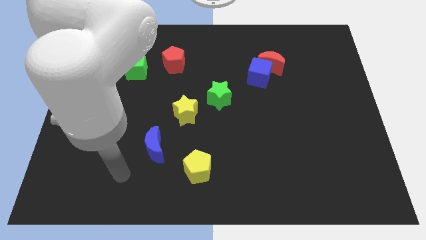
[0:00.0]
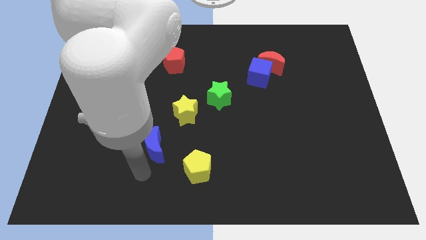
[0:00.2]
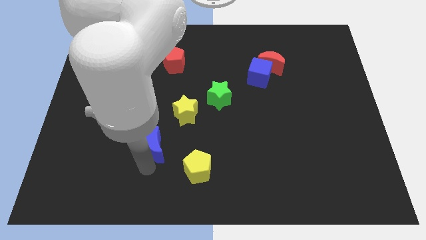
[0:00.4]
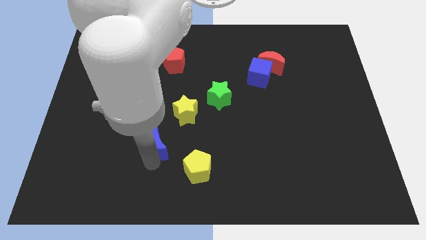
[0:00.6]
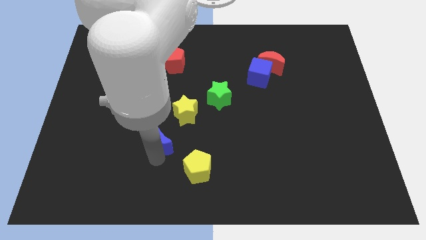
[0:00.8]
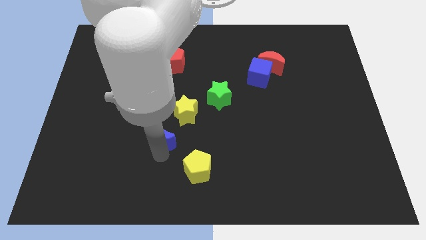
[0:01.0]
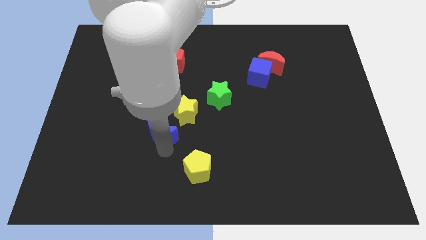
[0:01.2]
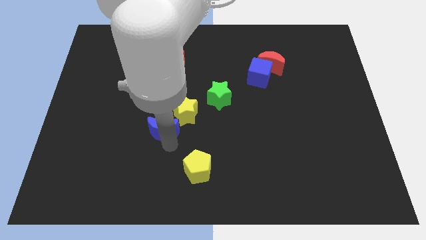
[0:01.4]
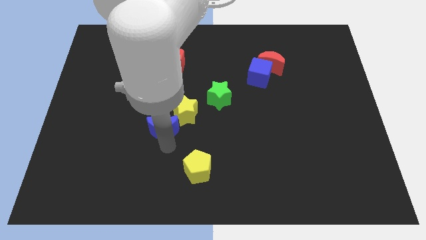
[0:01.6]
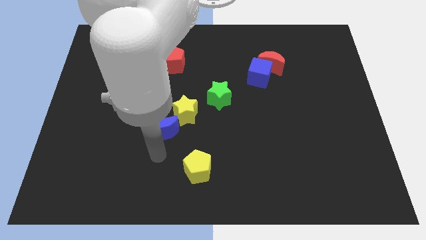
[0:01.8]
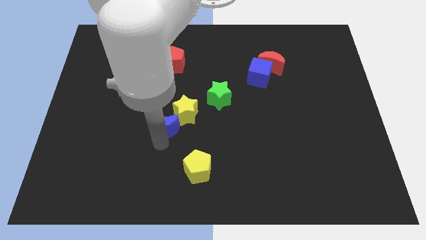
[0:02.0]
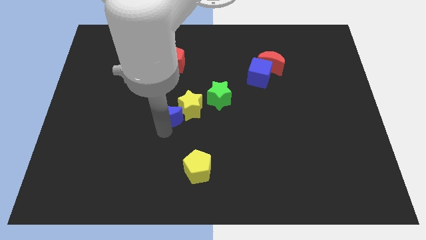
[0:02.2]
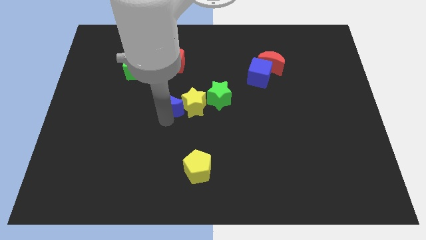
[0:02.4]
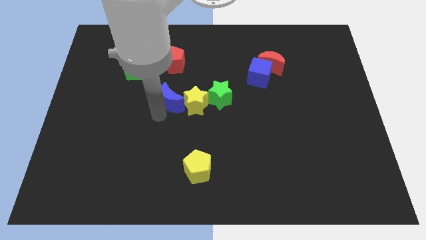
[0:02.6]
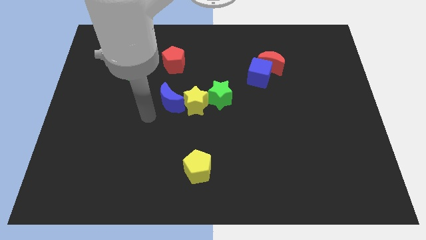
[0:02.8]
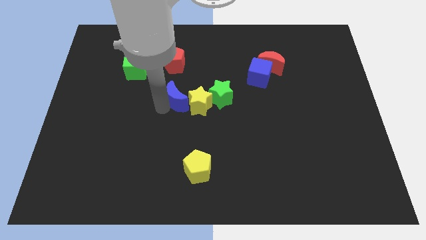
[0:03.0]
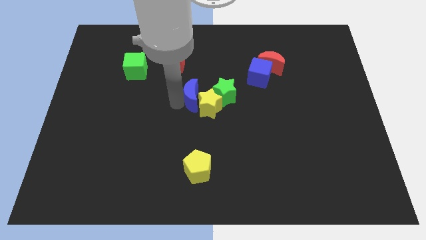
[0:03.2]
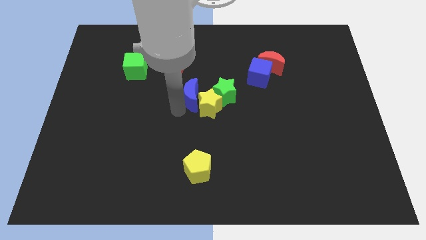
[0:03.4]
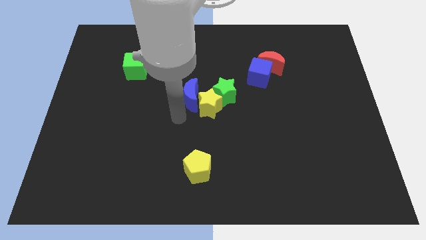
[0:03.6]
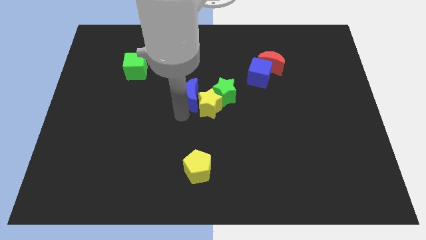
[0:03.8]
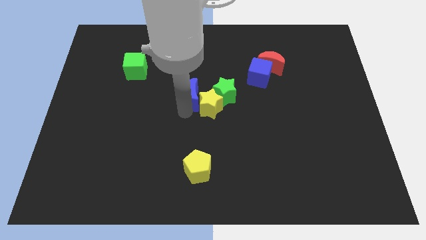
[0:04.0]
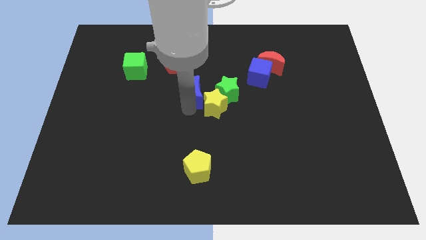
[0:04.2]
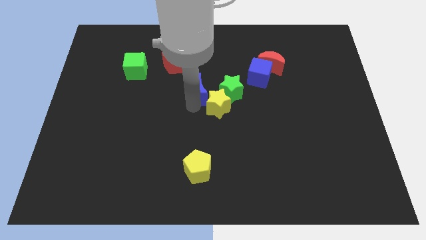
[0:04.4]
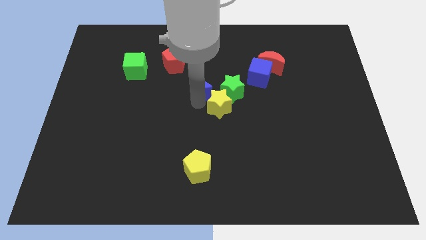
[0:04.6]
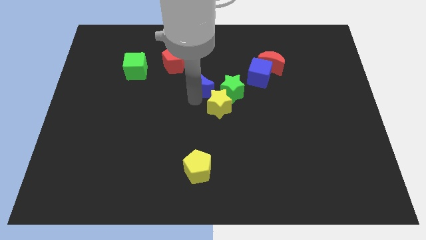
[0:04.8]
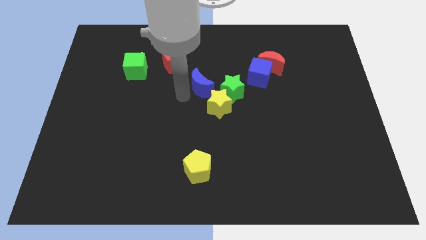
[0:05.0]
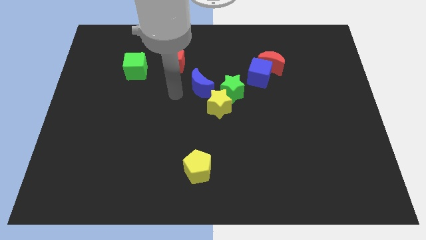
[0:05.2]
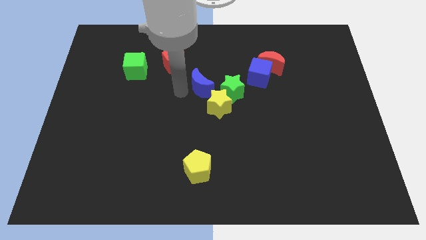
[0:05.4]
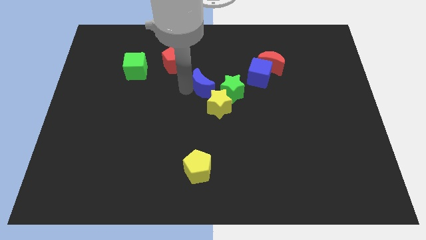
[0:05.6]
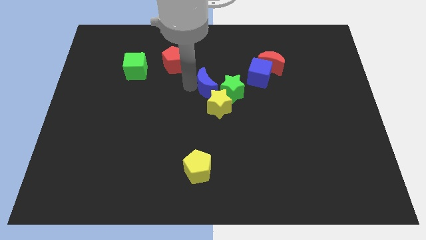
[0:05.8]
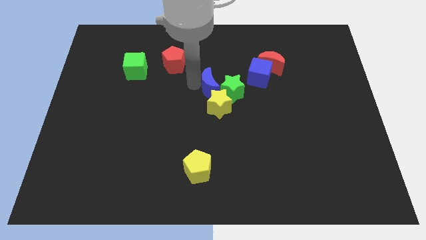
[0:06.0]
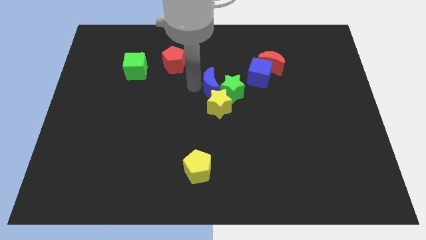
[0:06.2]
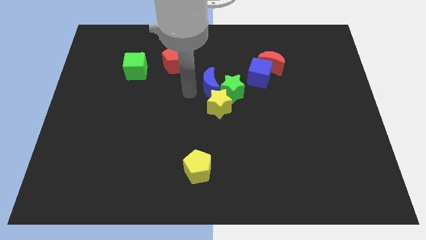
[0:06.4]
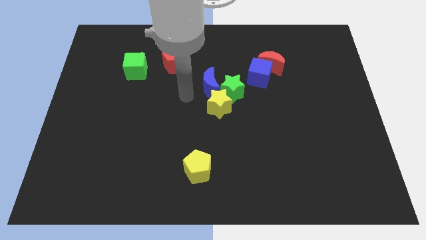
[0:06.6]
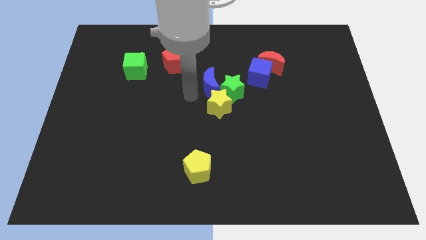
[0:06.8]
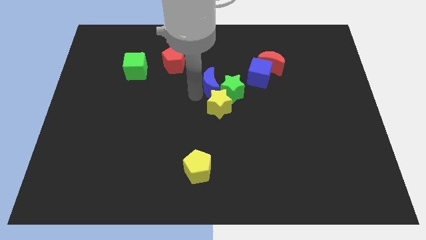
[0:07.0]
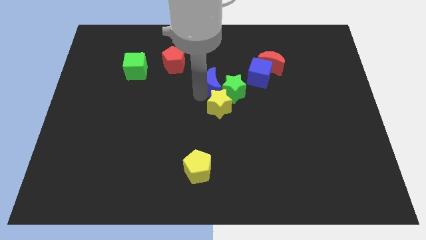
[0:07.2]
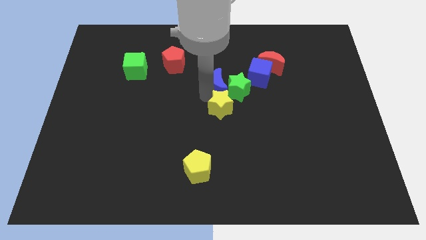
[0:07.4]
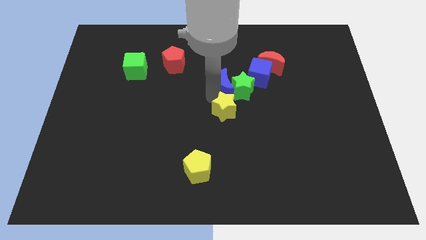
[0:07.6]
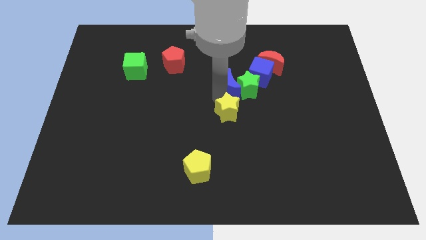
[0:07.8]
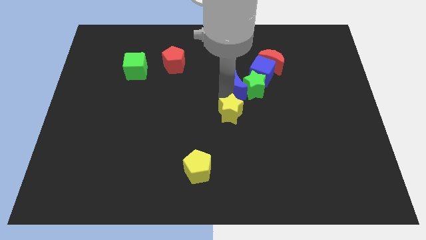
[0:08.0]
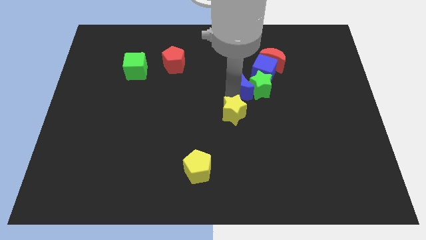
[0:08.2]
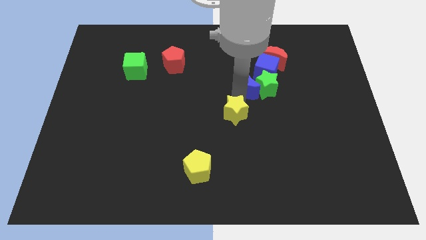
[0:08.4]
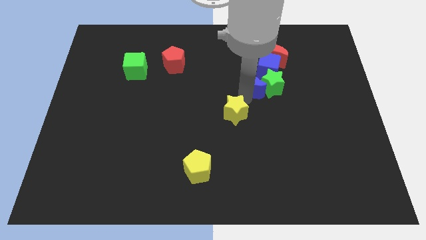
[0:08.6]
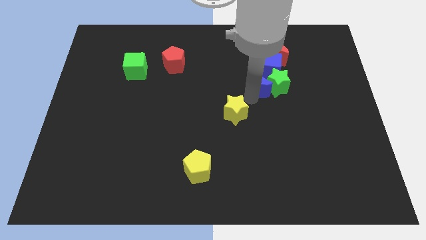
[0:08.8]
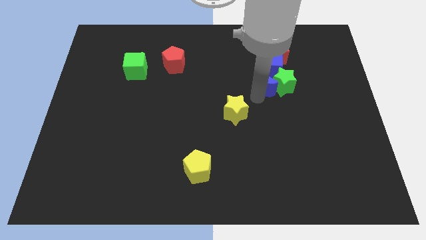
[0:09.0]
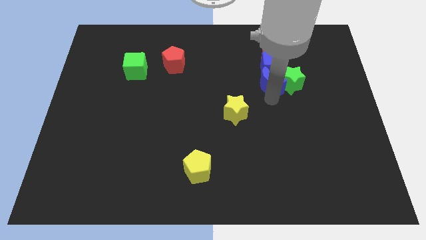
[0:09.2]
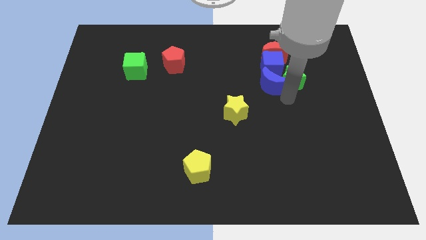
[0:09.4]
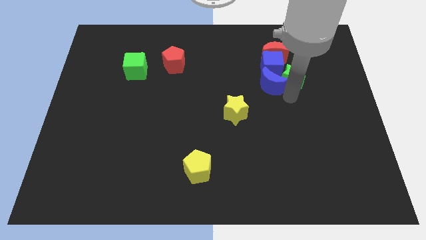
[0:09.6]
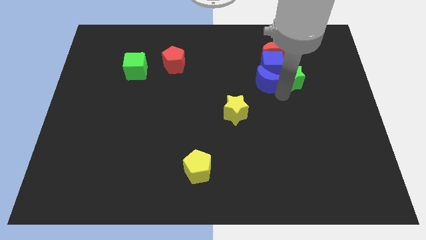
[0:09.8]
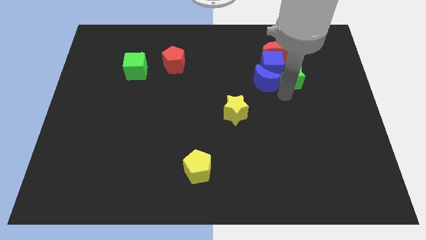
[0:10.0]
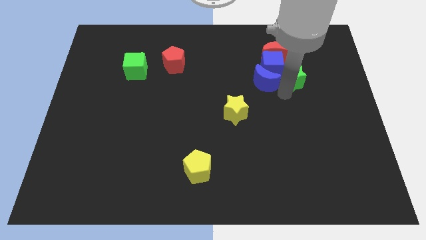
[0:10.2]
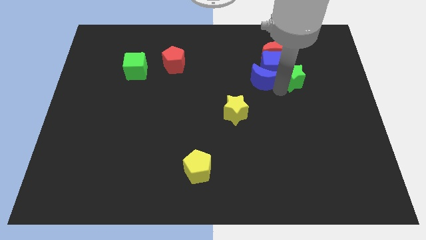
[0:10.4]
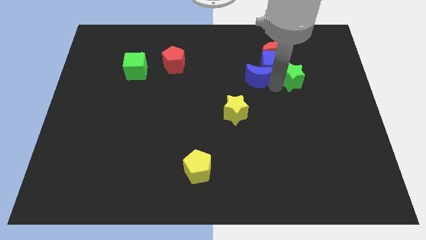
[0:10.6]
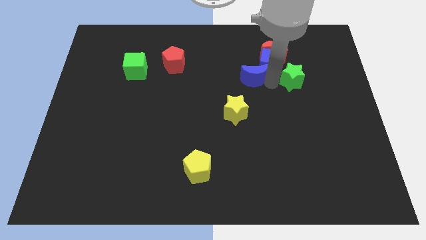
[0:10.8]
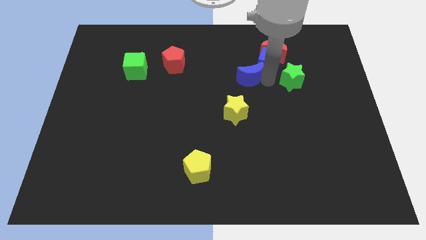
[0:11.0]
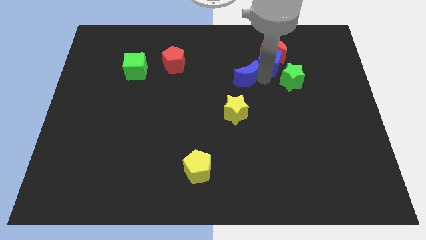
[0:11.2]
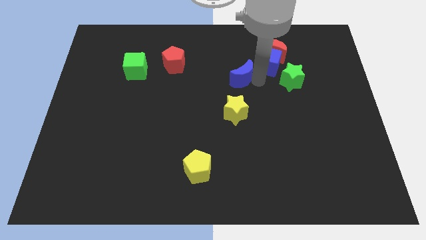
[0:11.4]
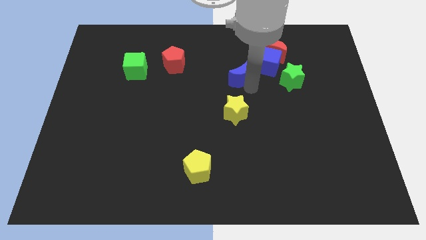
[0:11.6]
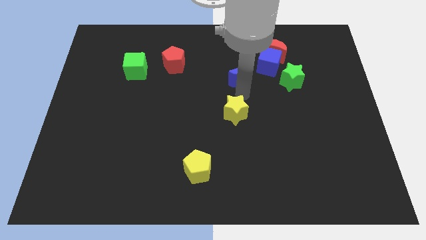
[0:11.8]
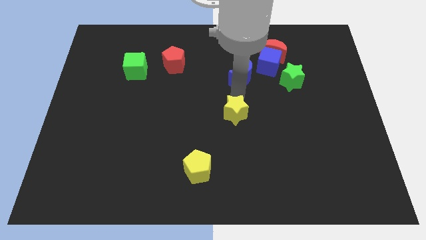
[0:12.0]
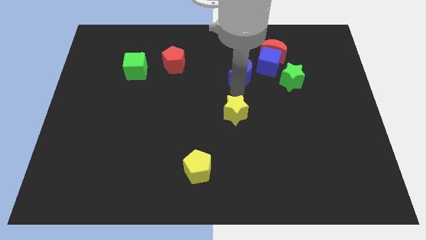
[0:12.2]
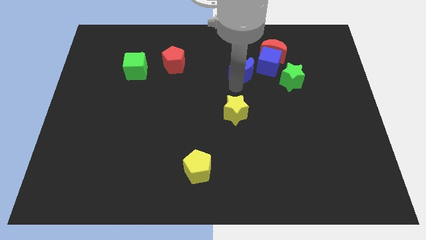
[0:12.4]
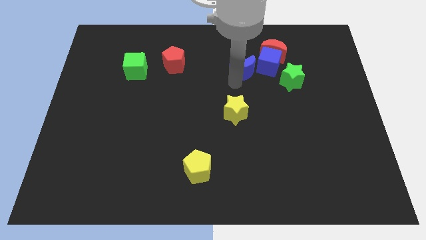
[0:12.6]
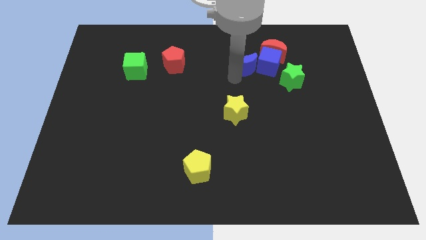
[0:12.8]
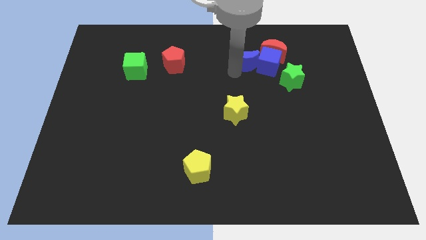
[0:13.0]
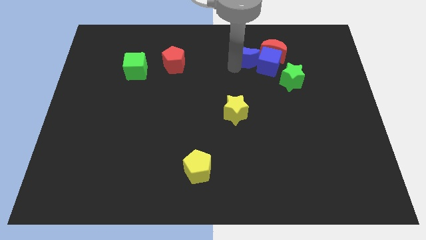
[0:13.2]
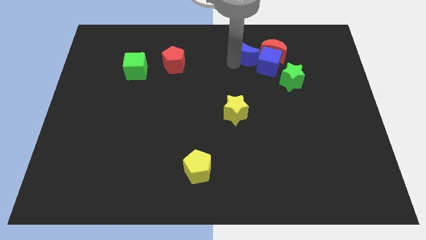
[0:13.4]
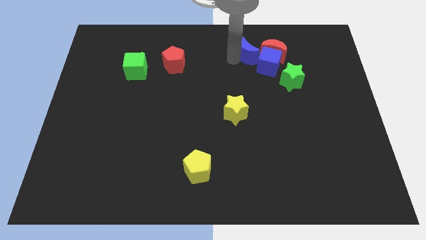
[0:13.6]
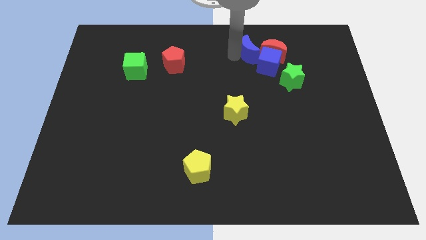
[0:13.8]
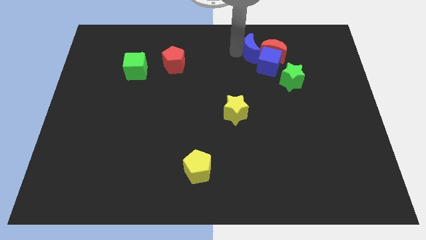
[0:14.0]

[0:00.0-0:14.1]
move the blue moon to the red moon
